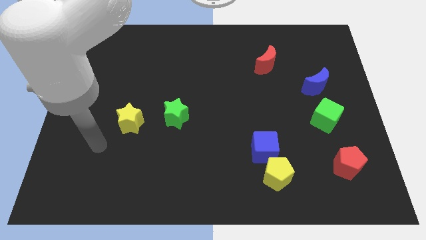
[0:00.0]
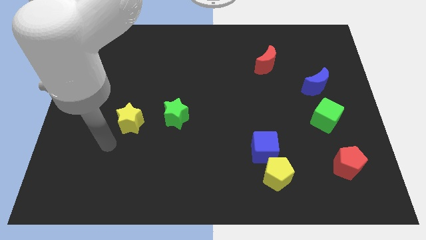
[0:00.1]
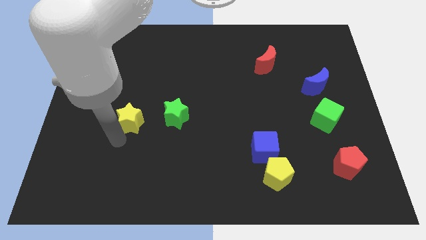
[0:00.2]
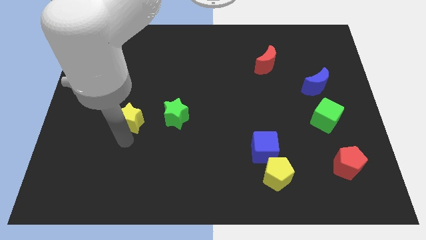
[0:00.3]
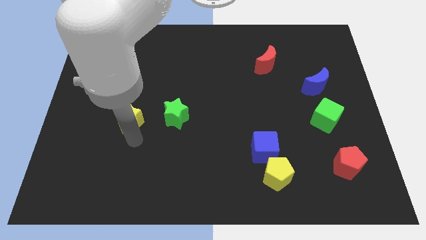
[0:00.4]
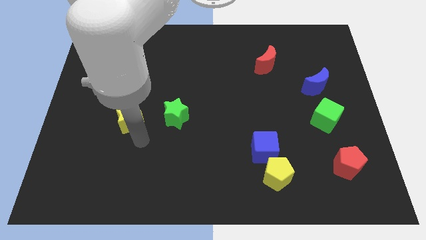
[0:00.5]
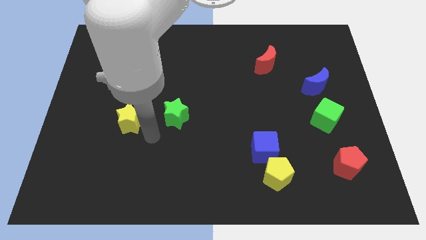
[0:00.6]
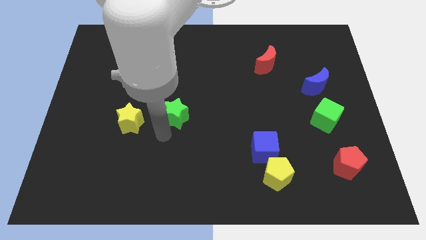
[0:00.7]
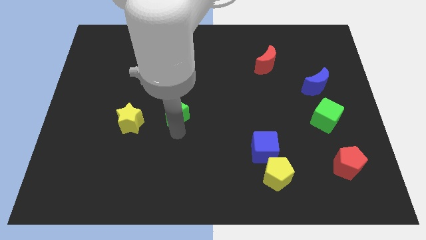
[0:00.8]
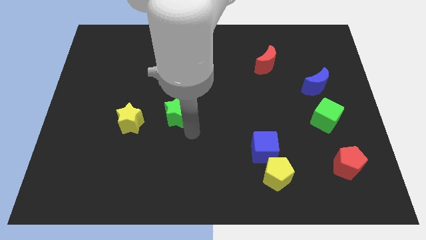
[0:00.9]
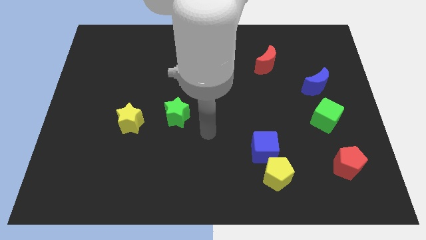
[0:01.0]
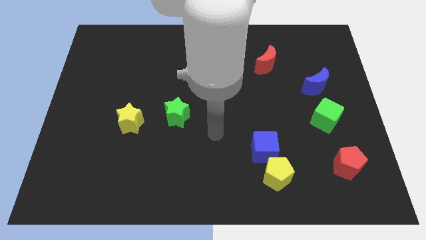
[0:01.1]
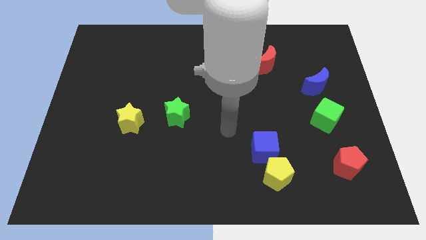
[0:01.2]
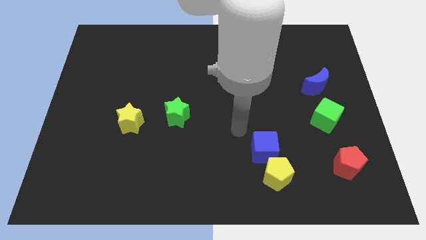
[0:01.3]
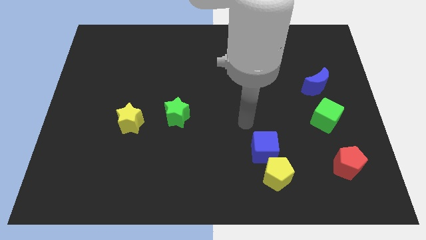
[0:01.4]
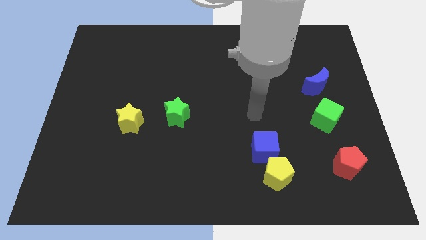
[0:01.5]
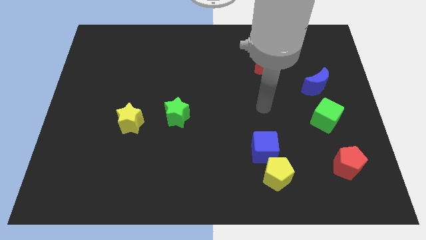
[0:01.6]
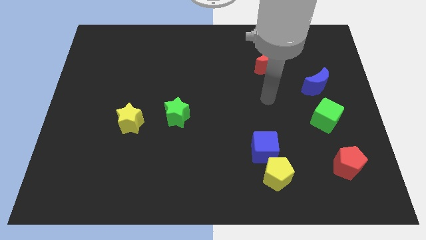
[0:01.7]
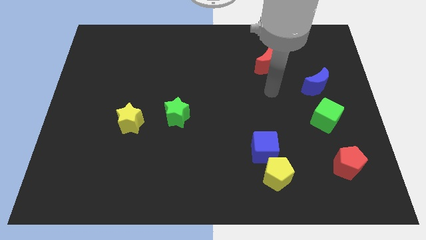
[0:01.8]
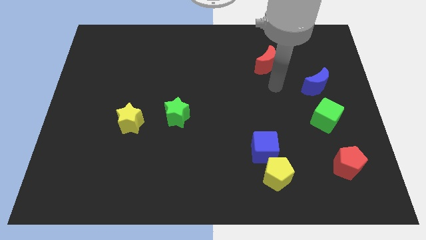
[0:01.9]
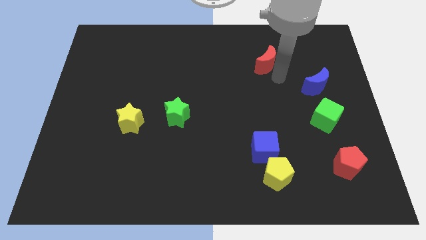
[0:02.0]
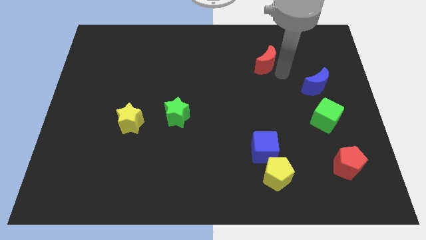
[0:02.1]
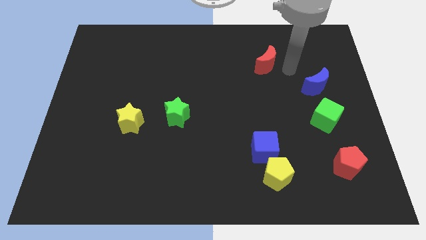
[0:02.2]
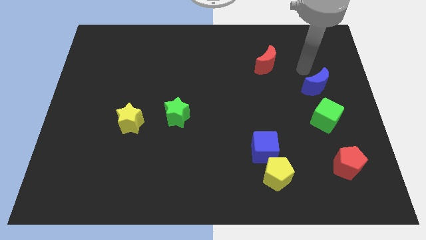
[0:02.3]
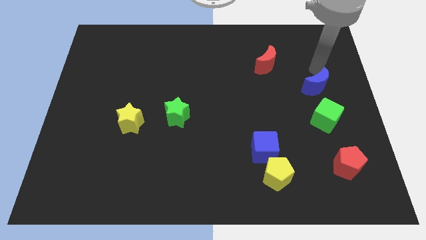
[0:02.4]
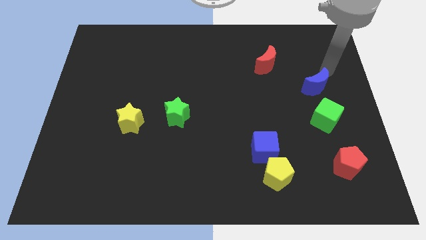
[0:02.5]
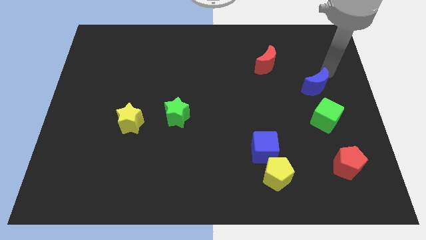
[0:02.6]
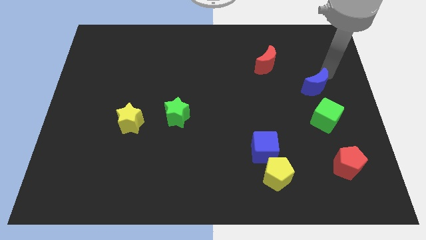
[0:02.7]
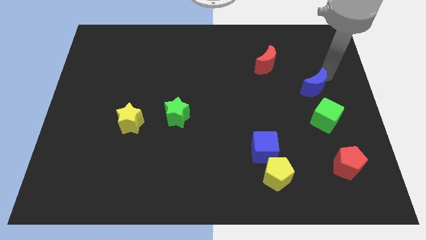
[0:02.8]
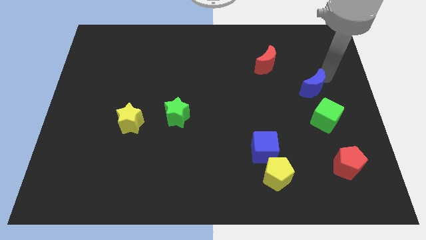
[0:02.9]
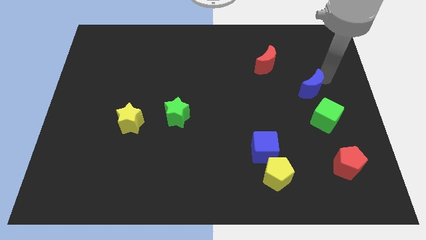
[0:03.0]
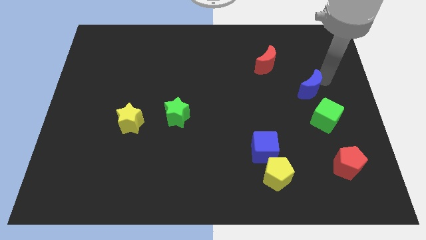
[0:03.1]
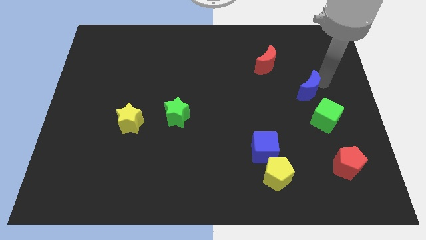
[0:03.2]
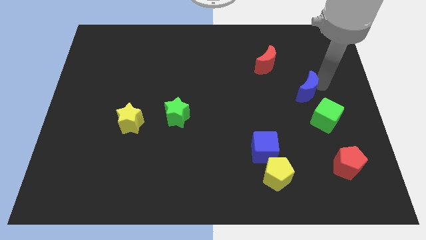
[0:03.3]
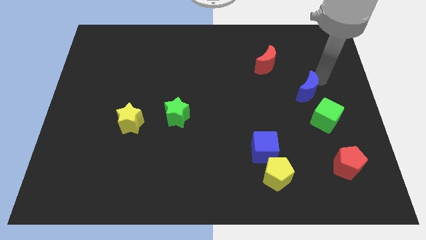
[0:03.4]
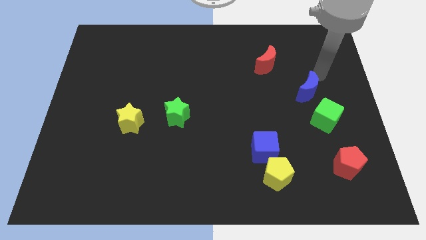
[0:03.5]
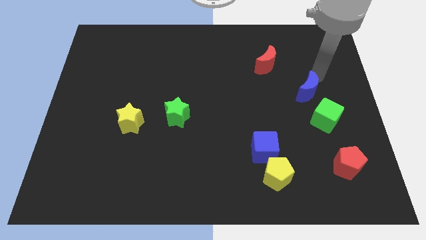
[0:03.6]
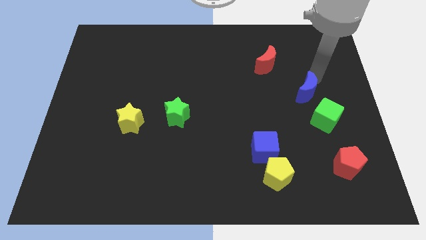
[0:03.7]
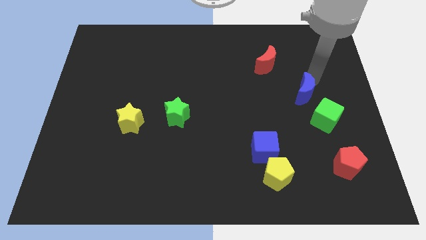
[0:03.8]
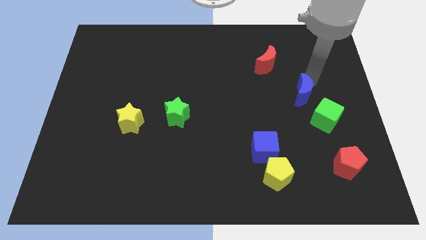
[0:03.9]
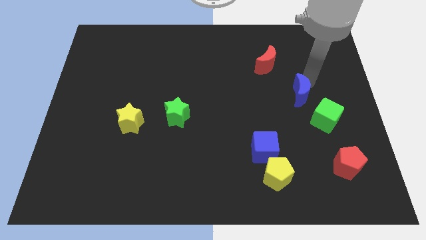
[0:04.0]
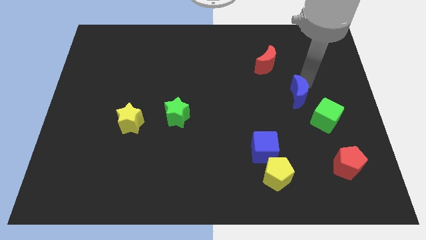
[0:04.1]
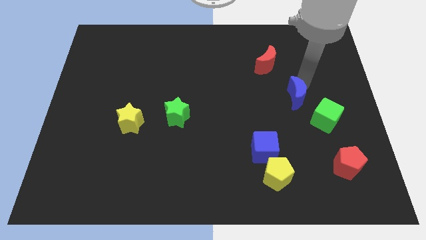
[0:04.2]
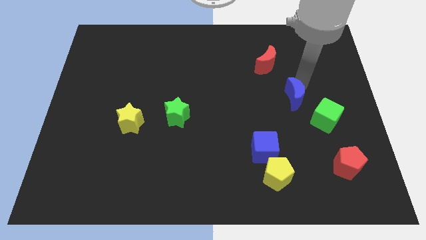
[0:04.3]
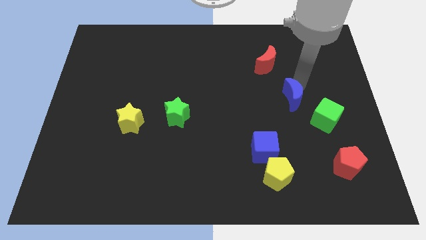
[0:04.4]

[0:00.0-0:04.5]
move the blue moon somewhat diagonally down and left

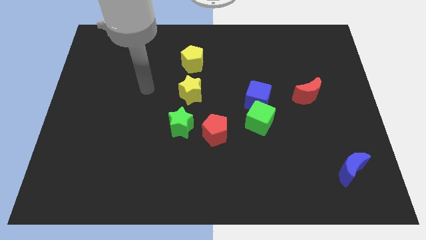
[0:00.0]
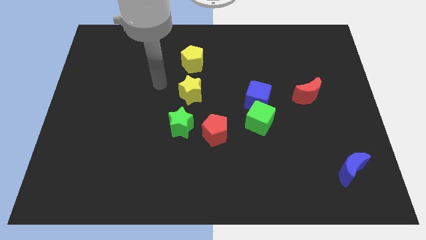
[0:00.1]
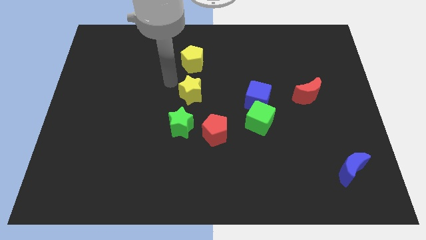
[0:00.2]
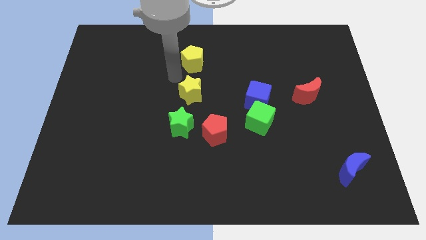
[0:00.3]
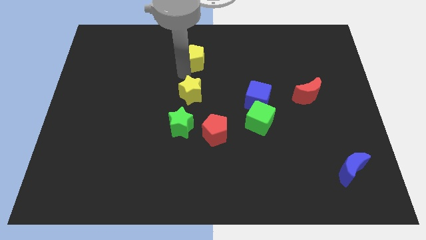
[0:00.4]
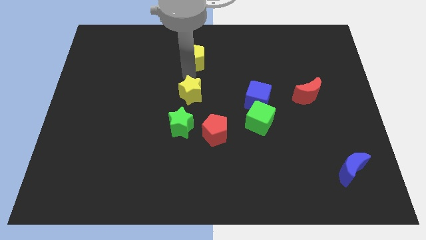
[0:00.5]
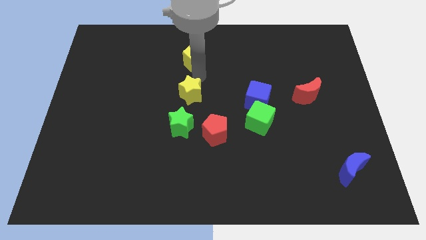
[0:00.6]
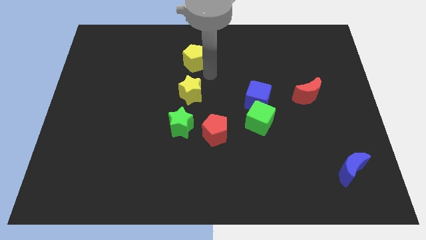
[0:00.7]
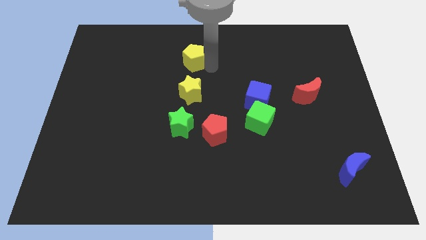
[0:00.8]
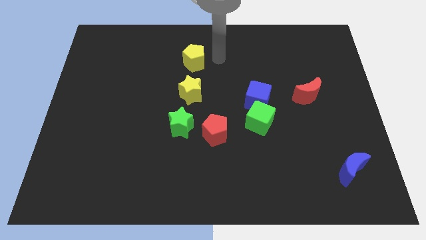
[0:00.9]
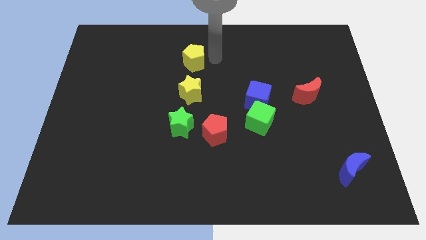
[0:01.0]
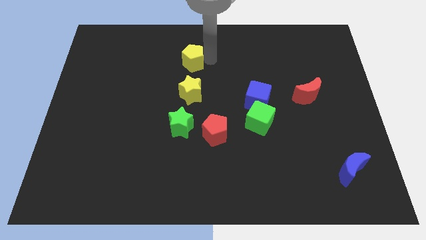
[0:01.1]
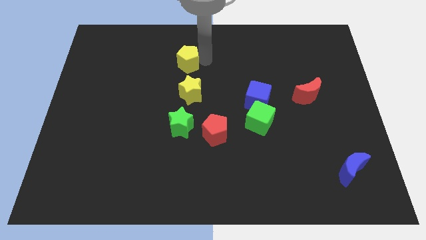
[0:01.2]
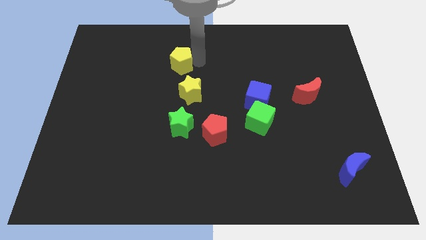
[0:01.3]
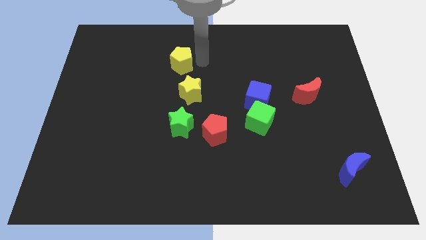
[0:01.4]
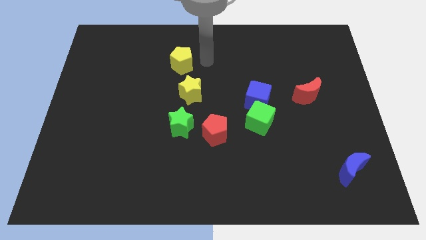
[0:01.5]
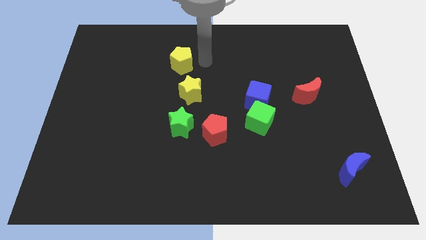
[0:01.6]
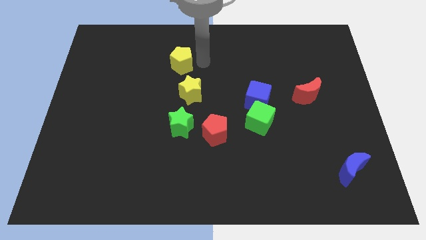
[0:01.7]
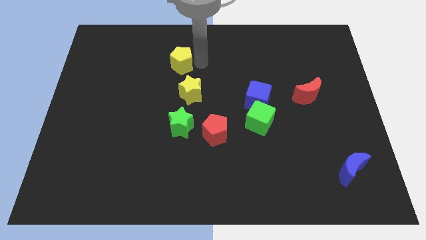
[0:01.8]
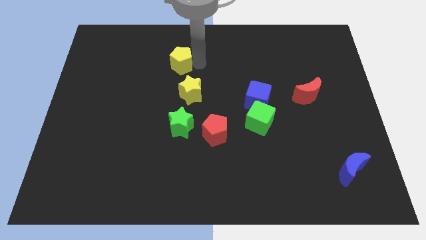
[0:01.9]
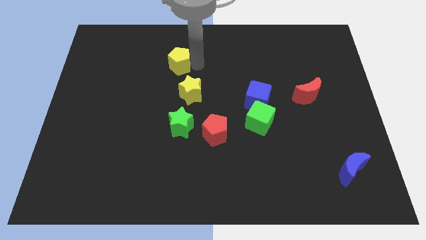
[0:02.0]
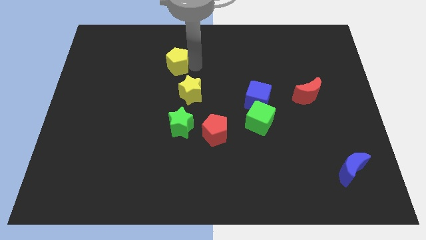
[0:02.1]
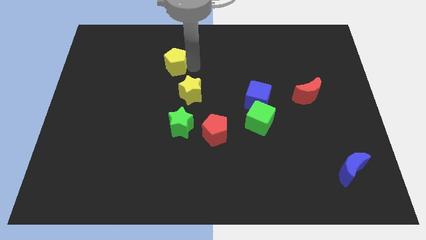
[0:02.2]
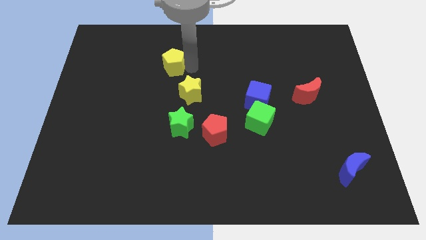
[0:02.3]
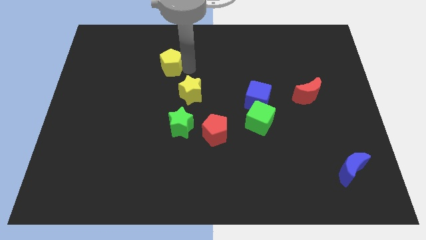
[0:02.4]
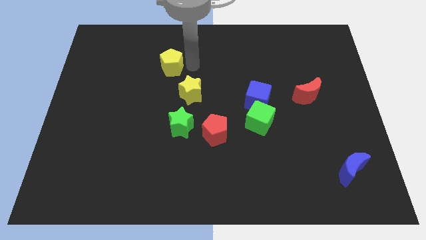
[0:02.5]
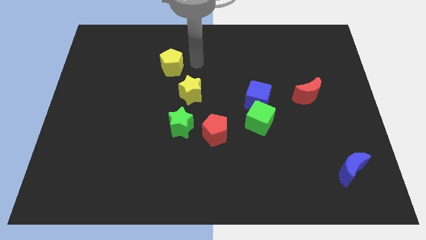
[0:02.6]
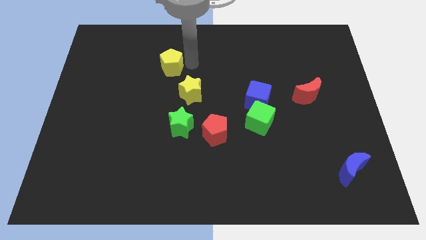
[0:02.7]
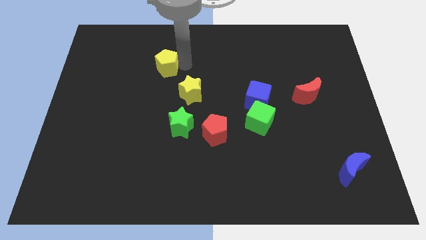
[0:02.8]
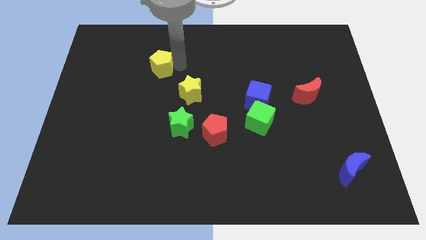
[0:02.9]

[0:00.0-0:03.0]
move the yellow pentagon a little bit to the left
